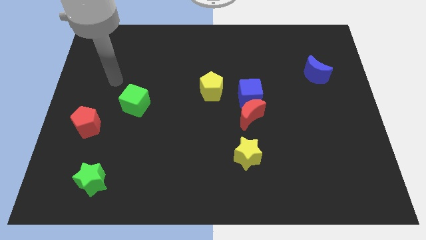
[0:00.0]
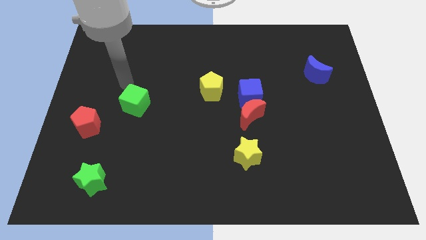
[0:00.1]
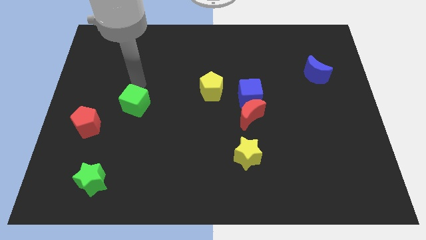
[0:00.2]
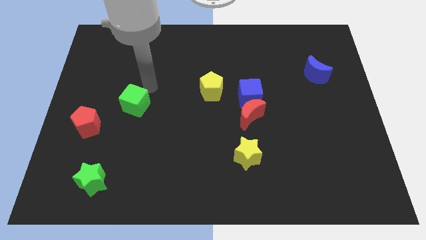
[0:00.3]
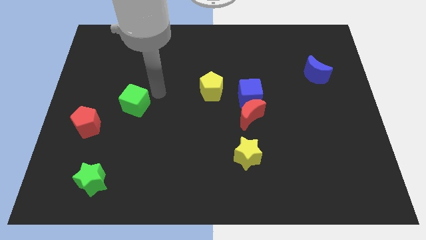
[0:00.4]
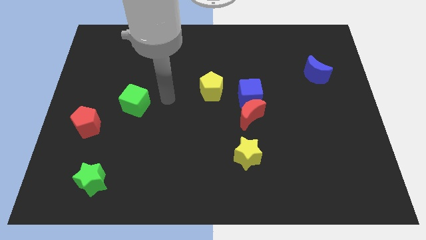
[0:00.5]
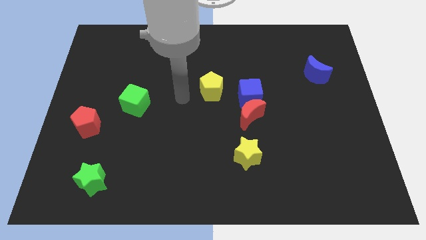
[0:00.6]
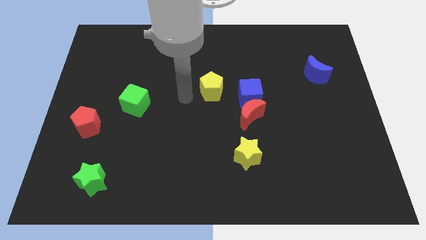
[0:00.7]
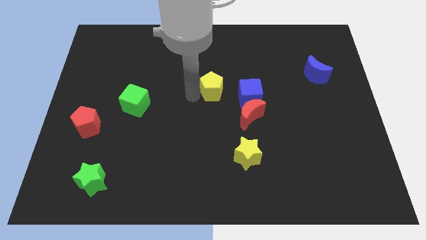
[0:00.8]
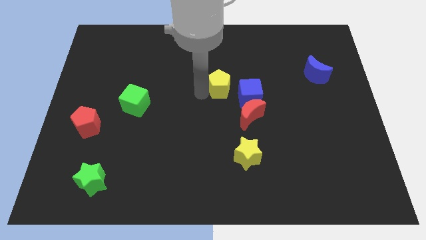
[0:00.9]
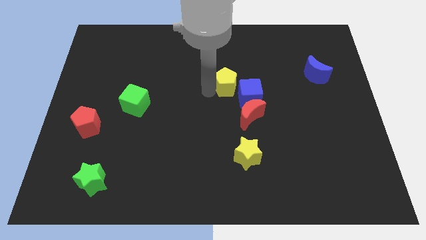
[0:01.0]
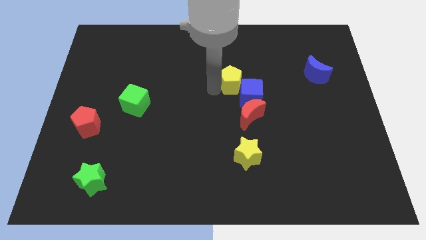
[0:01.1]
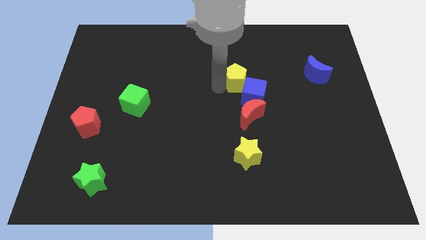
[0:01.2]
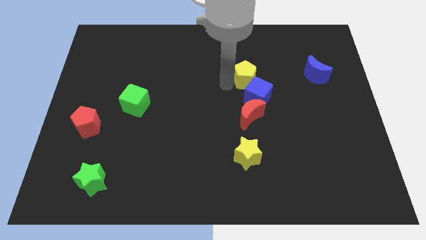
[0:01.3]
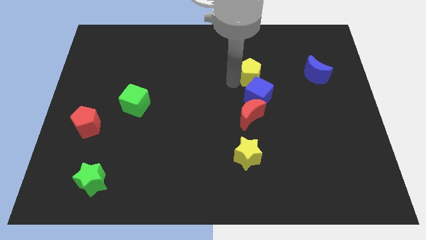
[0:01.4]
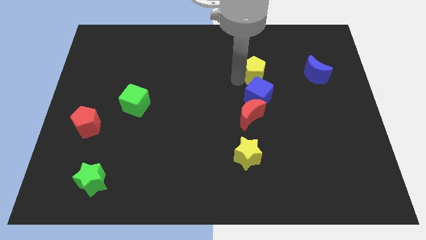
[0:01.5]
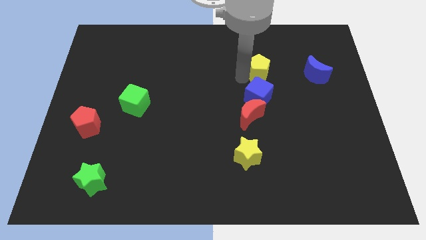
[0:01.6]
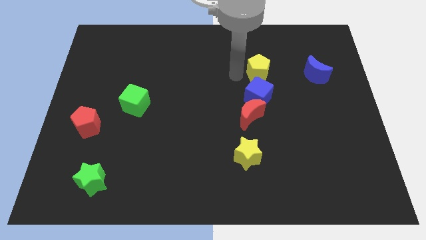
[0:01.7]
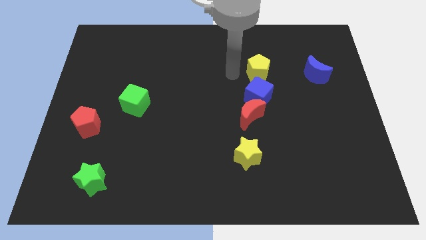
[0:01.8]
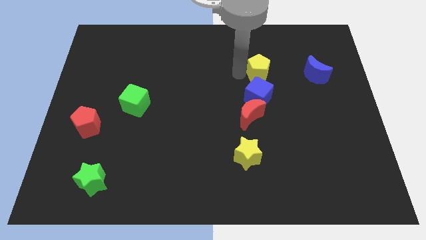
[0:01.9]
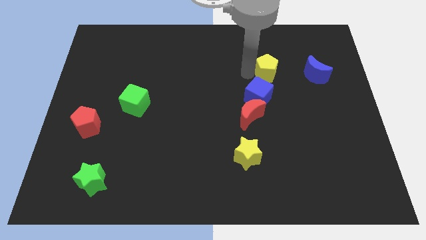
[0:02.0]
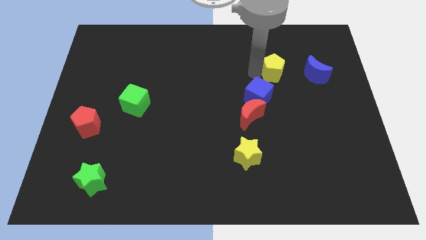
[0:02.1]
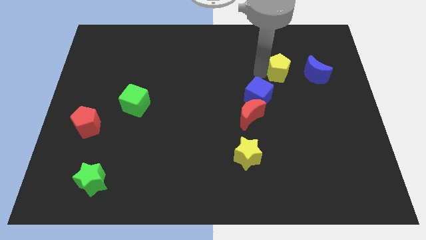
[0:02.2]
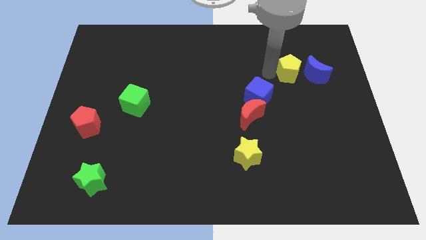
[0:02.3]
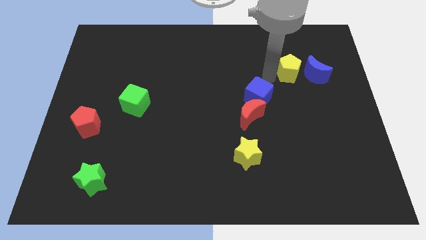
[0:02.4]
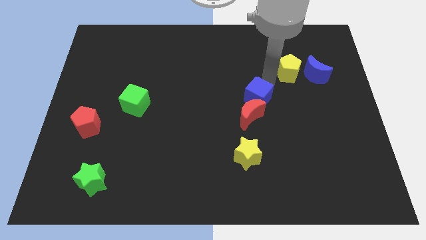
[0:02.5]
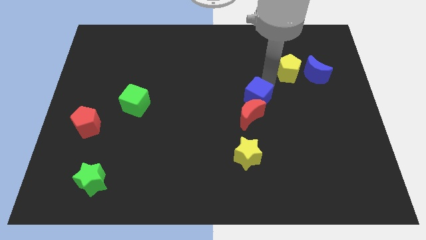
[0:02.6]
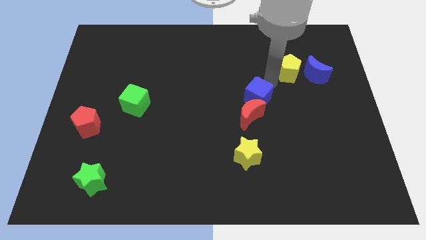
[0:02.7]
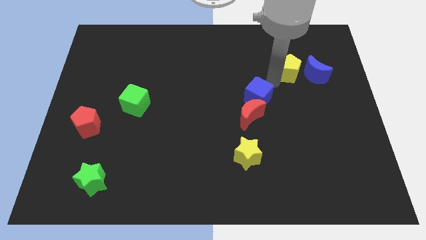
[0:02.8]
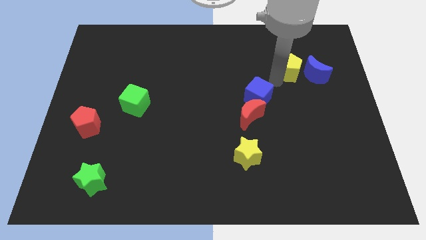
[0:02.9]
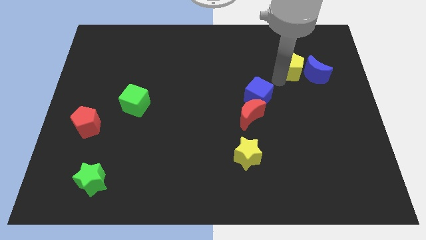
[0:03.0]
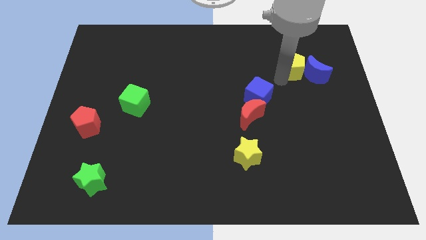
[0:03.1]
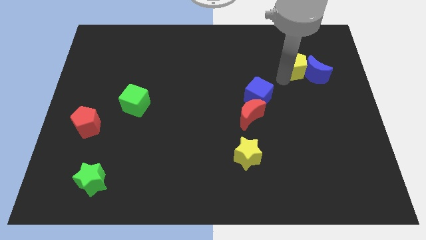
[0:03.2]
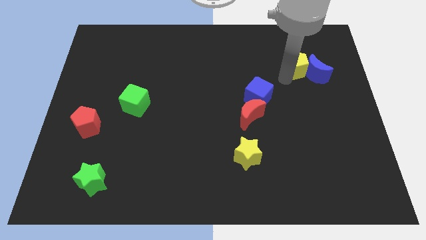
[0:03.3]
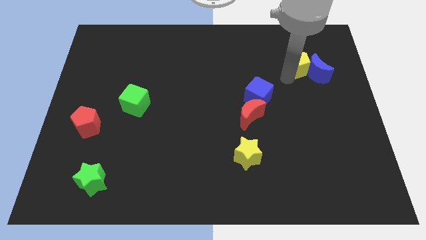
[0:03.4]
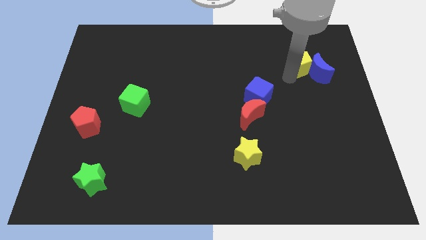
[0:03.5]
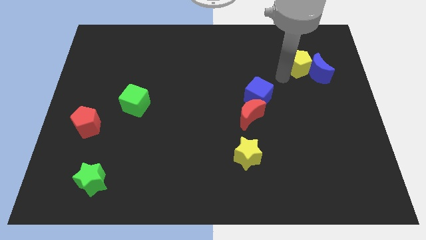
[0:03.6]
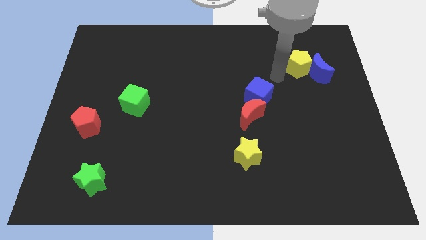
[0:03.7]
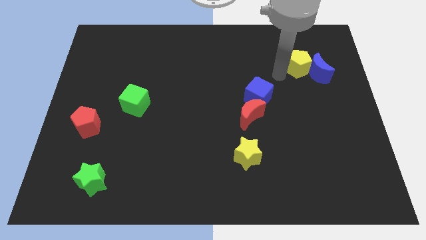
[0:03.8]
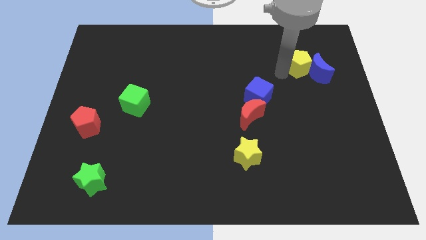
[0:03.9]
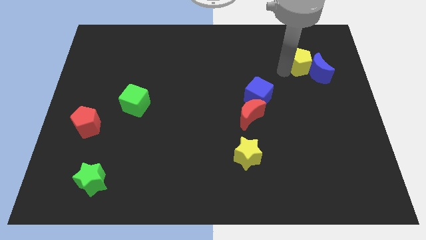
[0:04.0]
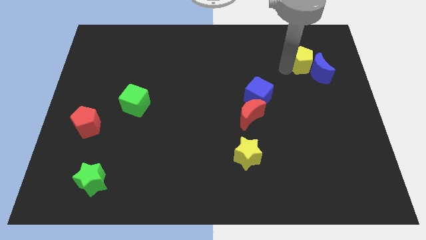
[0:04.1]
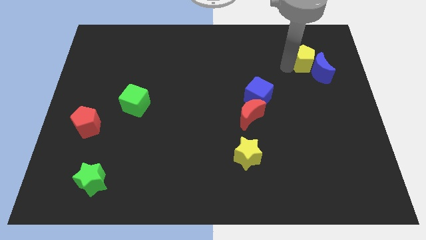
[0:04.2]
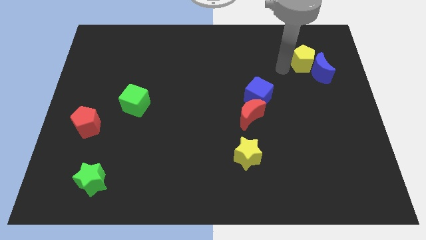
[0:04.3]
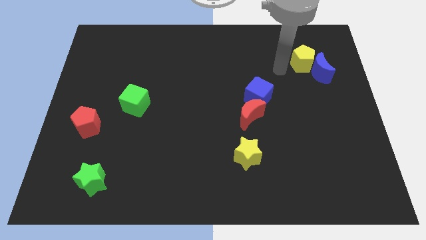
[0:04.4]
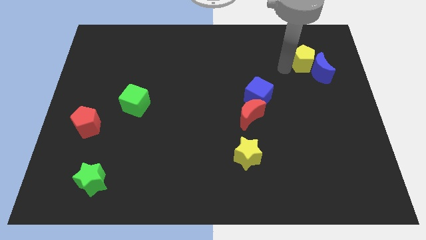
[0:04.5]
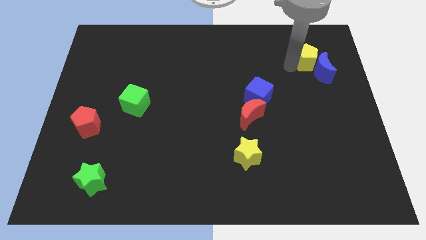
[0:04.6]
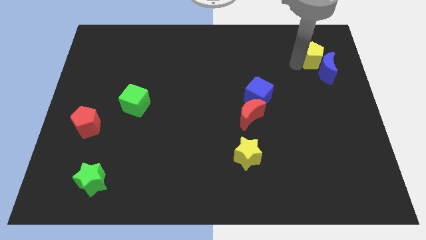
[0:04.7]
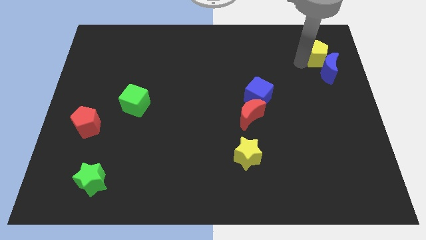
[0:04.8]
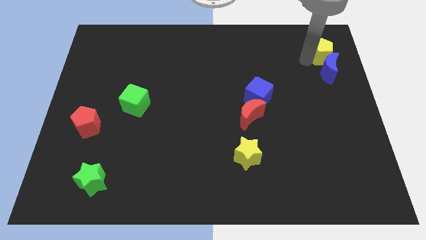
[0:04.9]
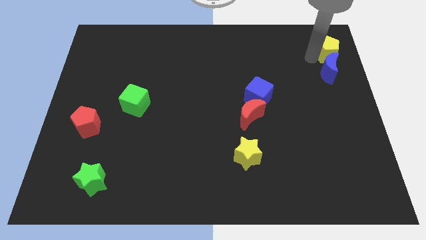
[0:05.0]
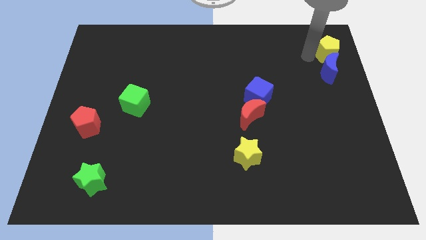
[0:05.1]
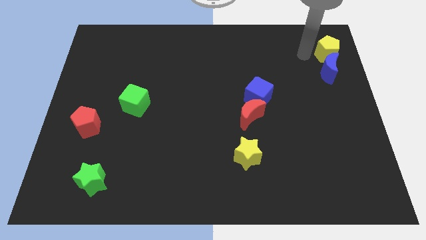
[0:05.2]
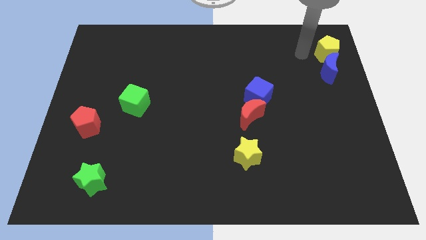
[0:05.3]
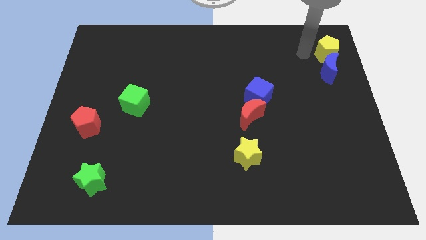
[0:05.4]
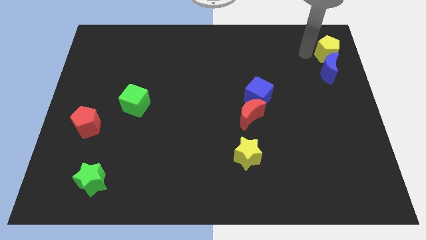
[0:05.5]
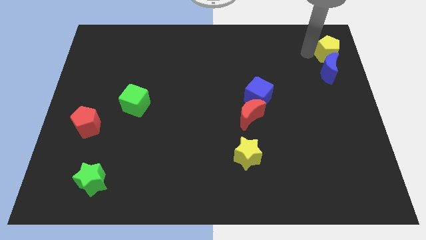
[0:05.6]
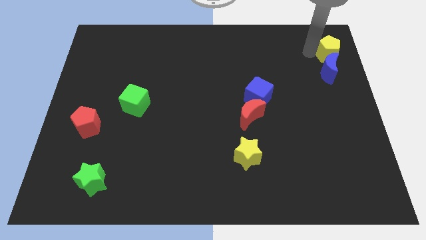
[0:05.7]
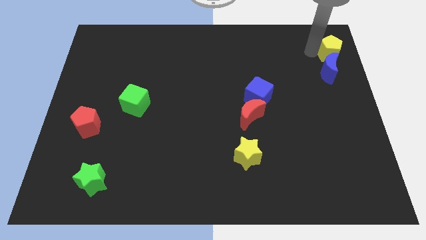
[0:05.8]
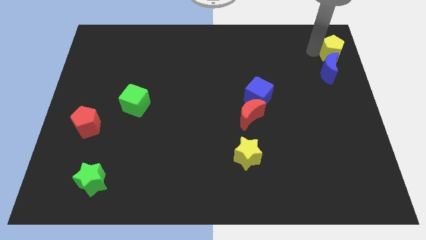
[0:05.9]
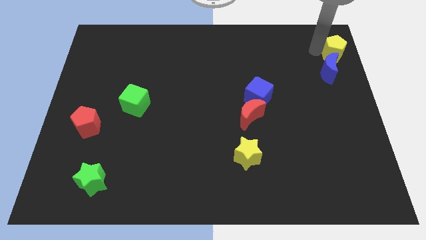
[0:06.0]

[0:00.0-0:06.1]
put the yellow pentagon to the top right of the board

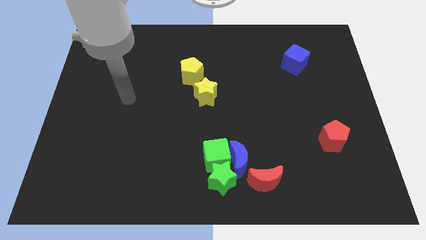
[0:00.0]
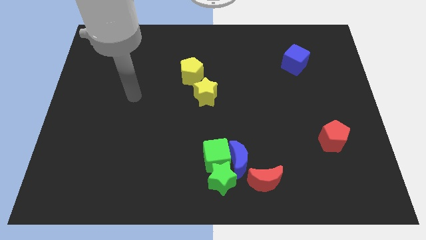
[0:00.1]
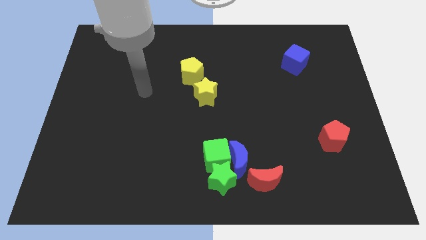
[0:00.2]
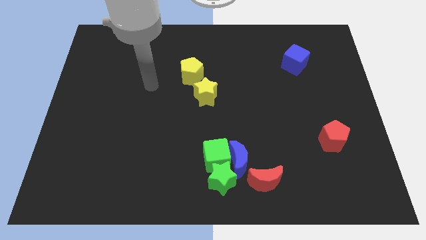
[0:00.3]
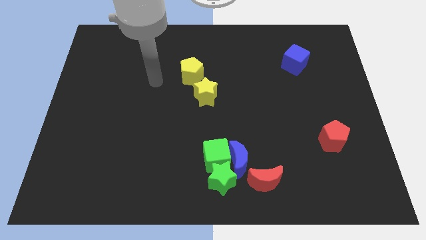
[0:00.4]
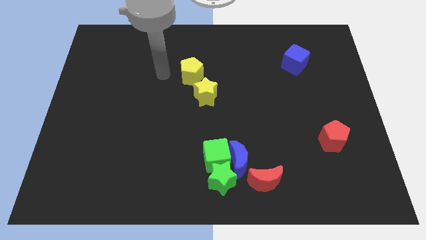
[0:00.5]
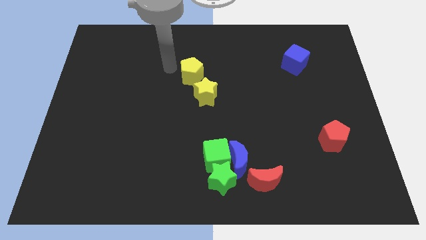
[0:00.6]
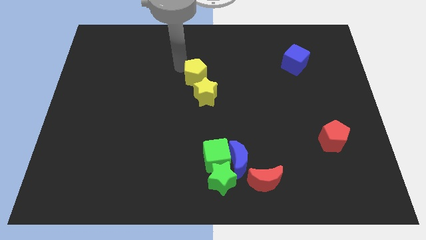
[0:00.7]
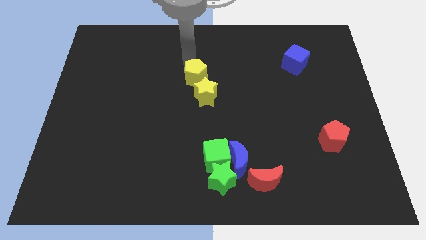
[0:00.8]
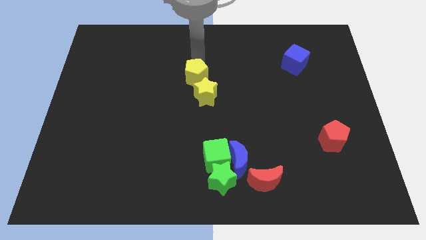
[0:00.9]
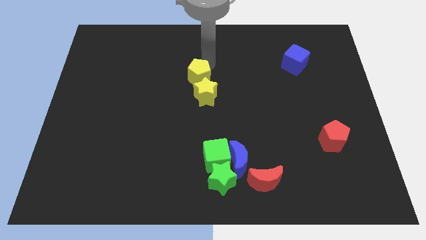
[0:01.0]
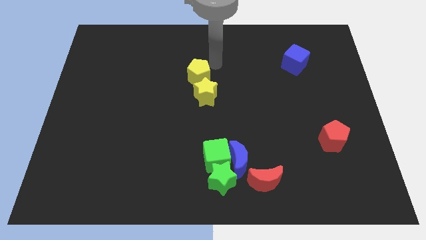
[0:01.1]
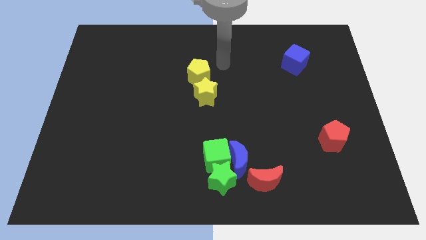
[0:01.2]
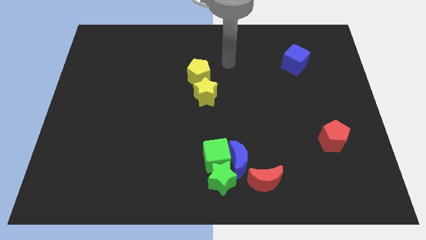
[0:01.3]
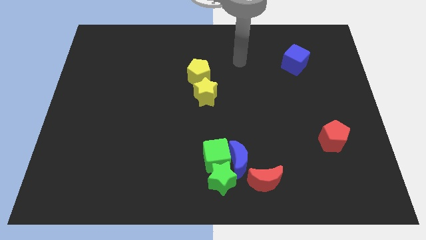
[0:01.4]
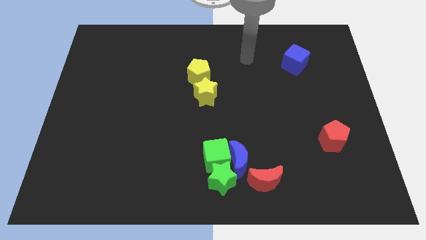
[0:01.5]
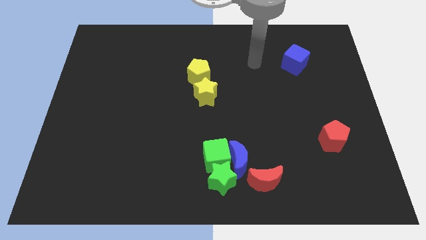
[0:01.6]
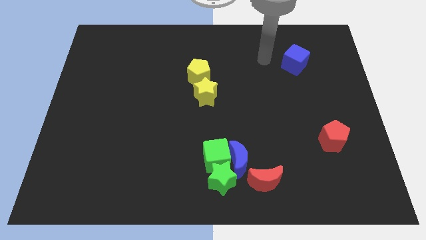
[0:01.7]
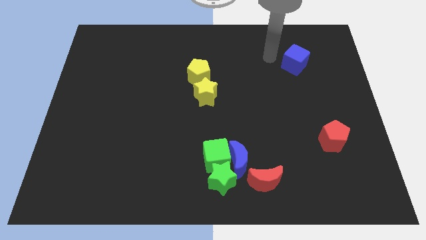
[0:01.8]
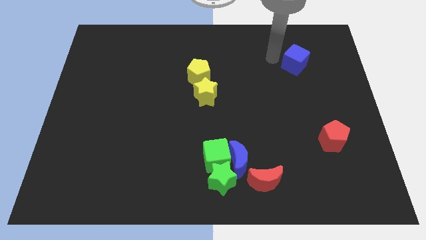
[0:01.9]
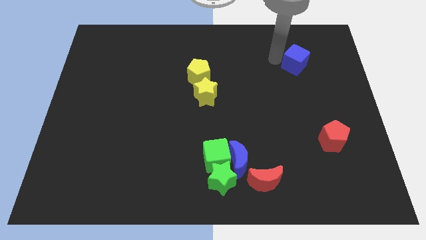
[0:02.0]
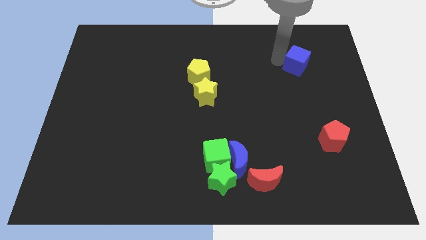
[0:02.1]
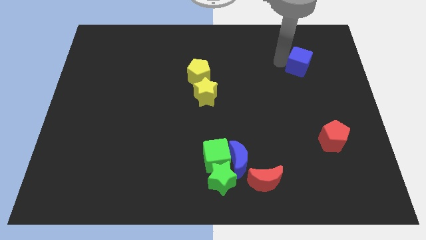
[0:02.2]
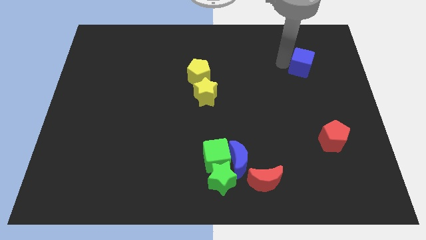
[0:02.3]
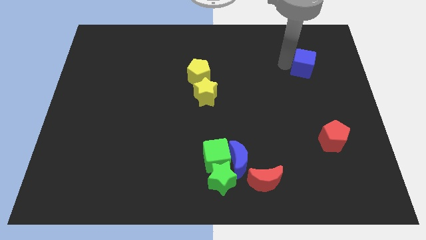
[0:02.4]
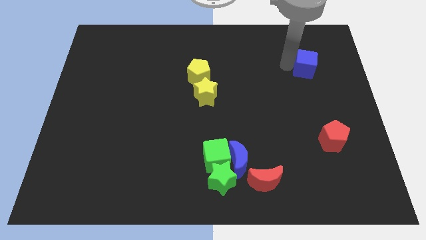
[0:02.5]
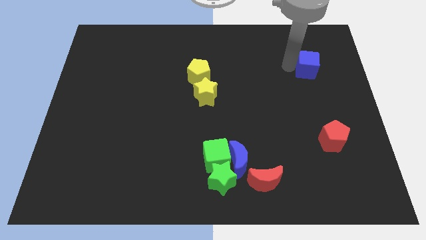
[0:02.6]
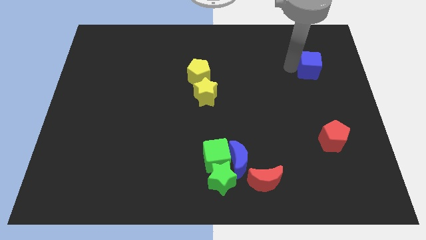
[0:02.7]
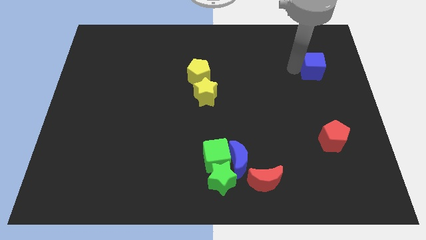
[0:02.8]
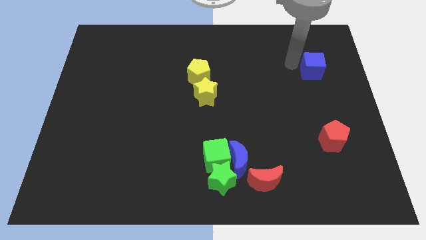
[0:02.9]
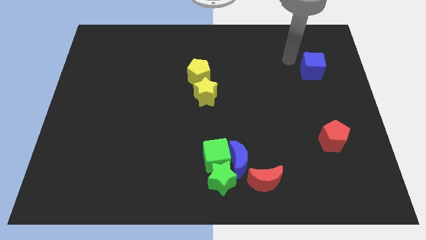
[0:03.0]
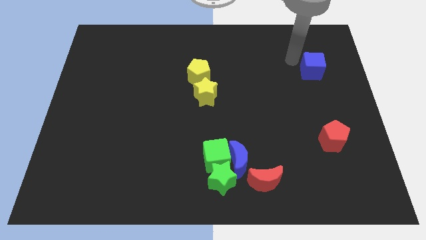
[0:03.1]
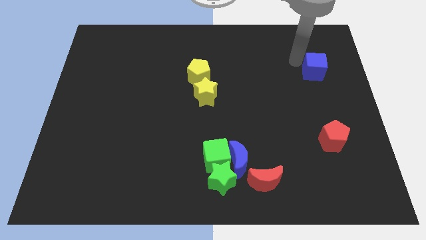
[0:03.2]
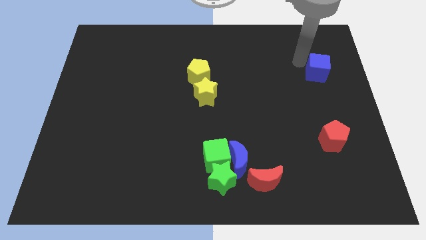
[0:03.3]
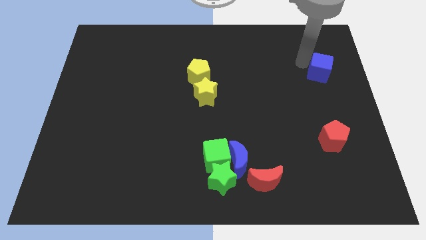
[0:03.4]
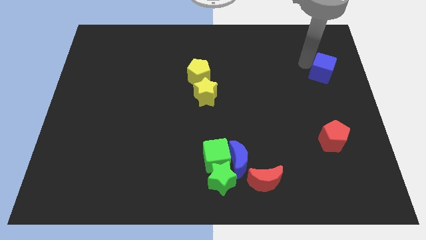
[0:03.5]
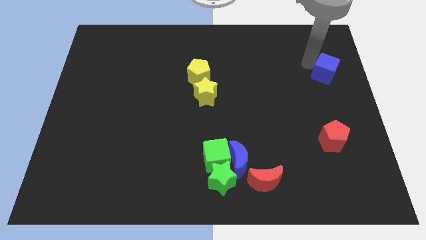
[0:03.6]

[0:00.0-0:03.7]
put the blue cube to the right side
